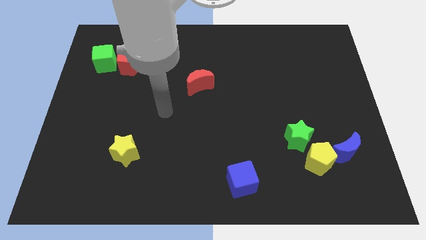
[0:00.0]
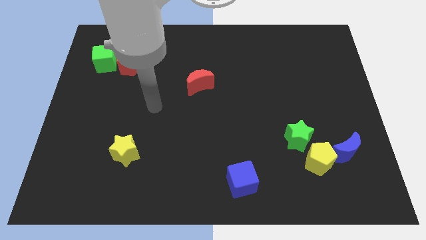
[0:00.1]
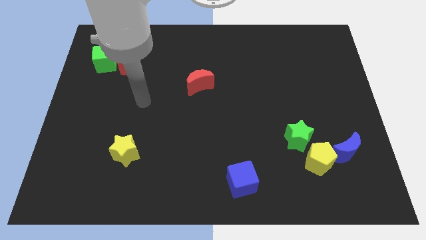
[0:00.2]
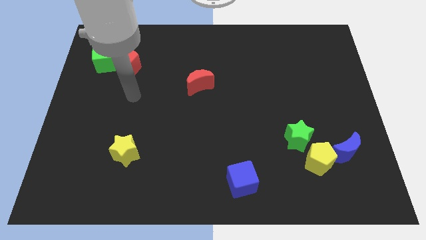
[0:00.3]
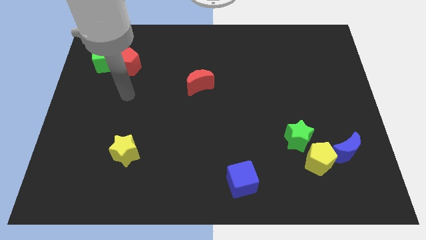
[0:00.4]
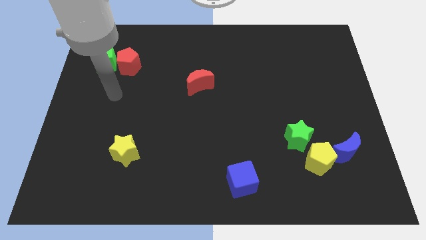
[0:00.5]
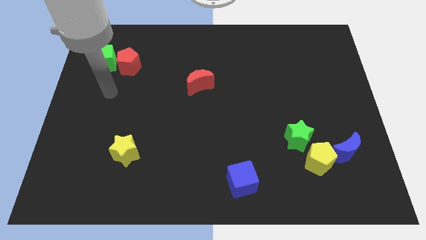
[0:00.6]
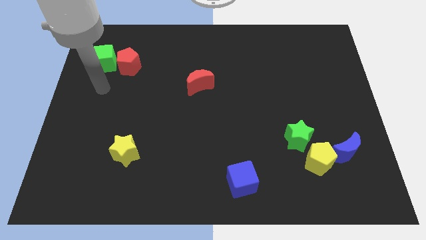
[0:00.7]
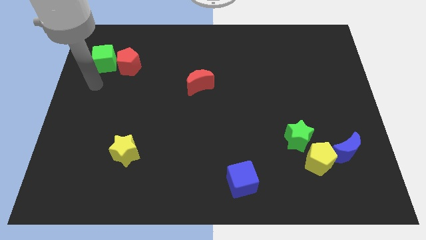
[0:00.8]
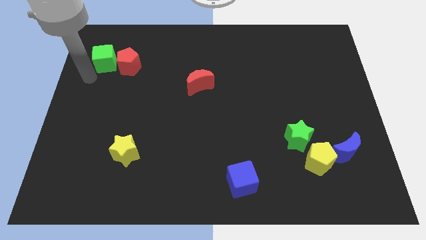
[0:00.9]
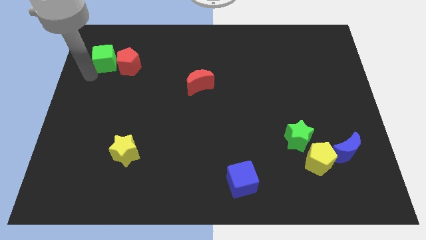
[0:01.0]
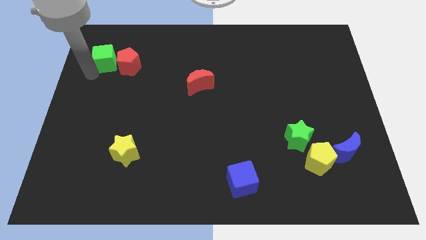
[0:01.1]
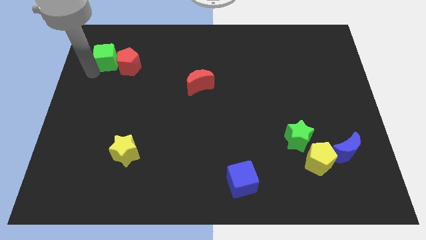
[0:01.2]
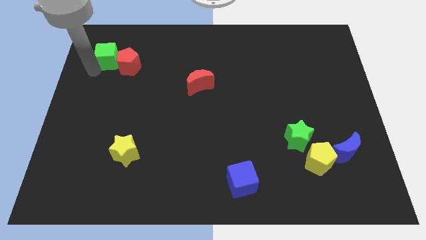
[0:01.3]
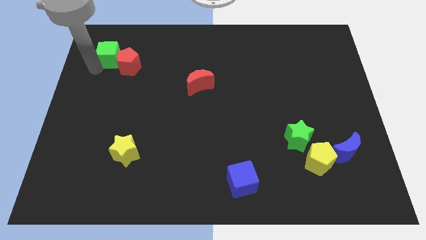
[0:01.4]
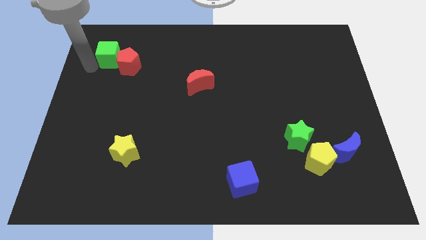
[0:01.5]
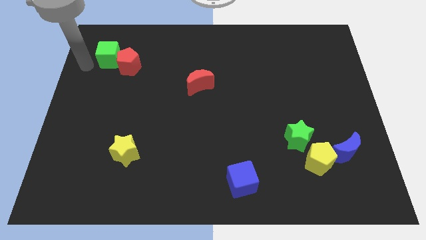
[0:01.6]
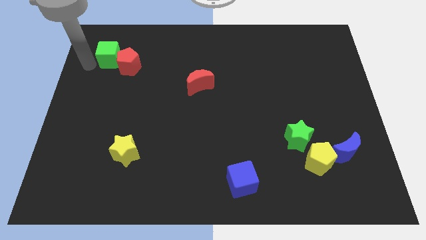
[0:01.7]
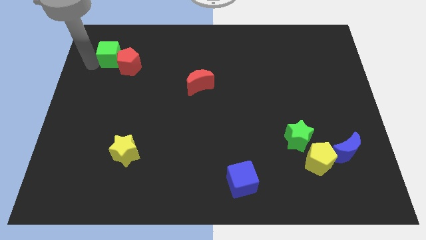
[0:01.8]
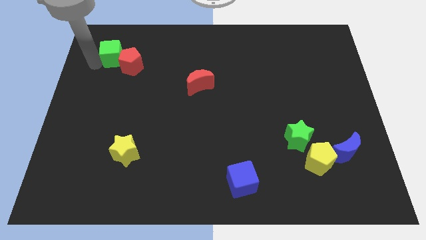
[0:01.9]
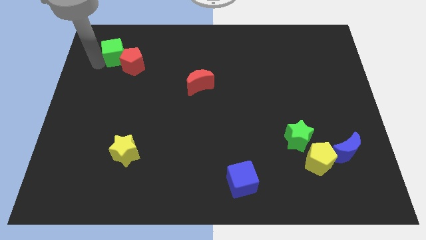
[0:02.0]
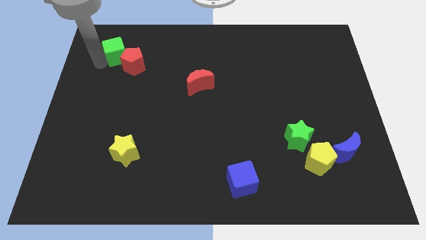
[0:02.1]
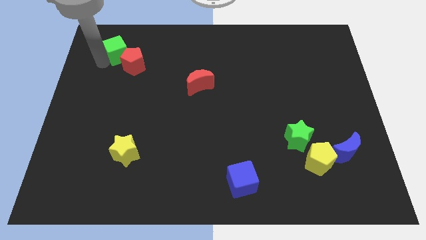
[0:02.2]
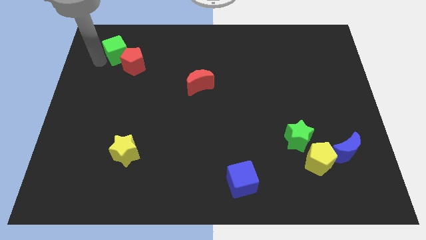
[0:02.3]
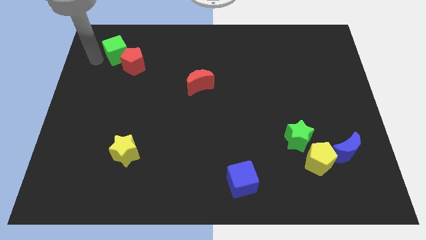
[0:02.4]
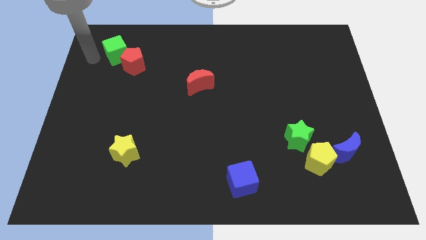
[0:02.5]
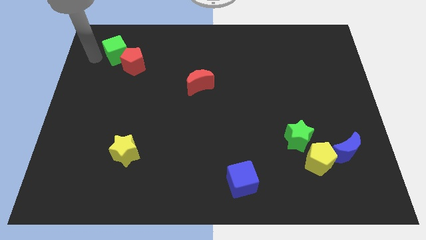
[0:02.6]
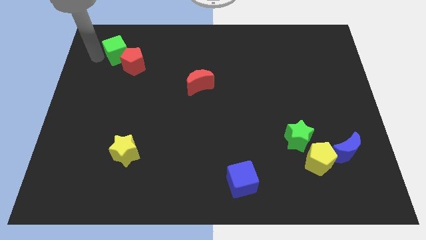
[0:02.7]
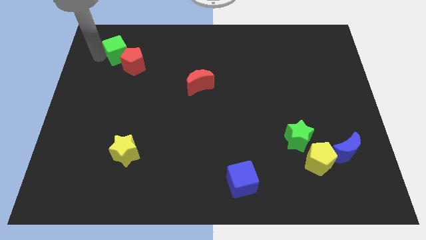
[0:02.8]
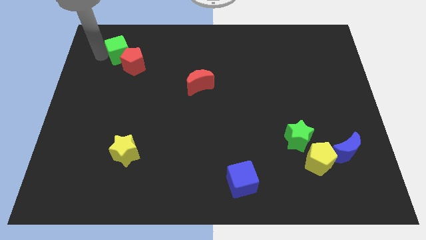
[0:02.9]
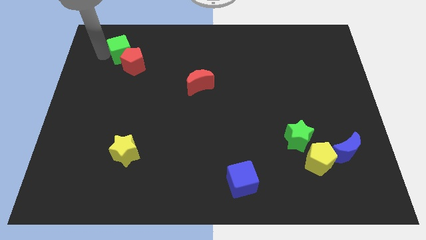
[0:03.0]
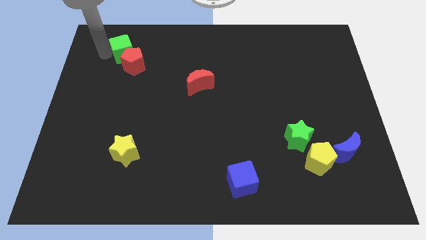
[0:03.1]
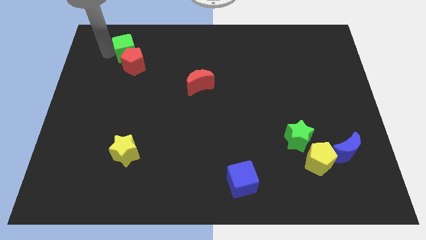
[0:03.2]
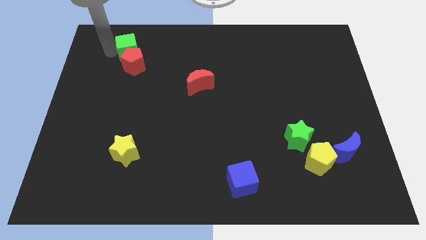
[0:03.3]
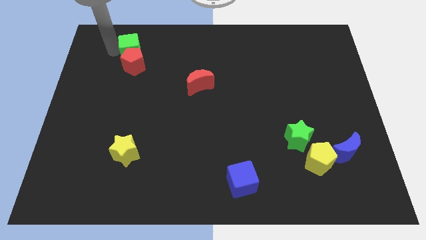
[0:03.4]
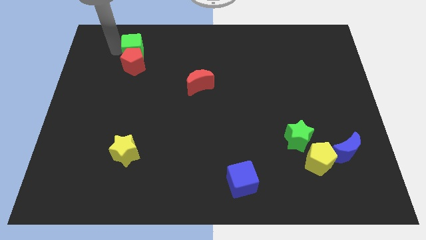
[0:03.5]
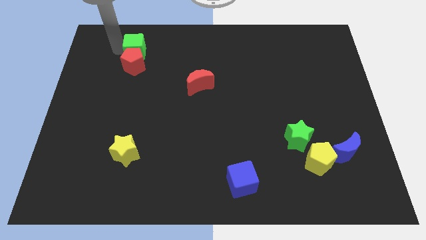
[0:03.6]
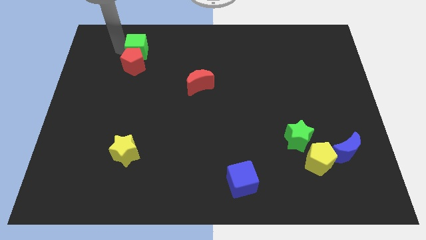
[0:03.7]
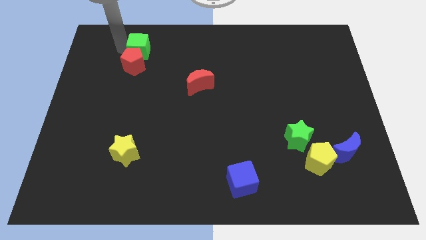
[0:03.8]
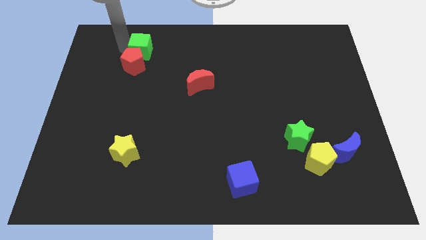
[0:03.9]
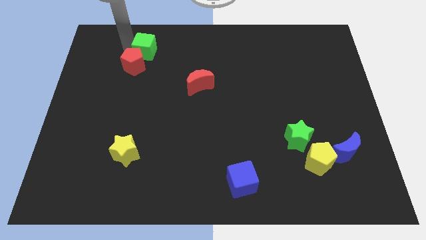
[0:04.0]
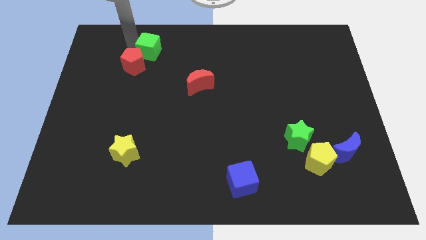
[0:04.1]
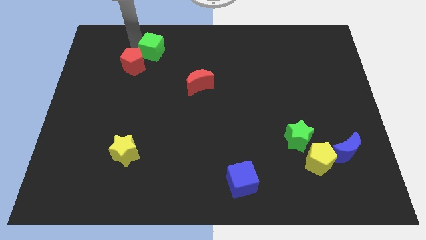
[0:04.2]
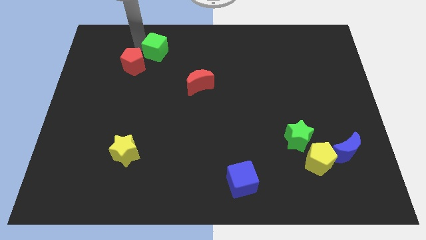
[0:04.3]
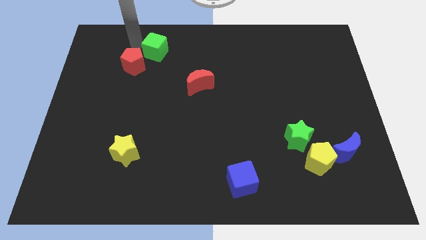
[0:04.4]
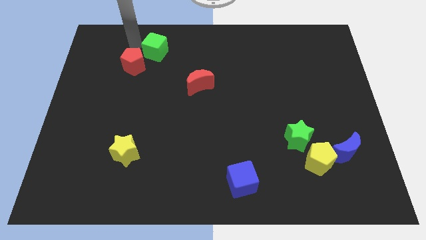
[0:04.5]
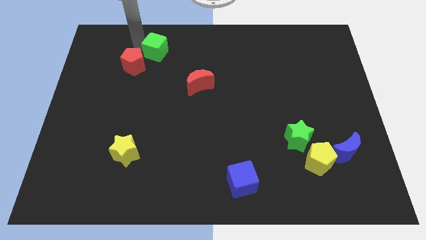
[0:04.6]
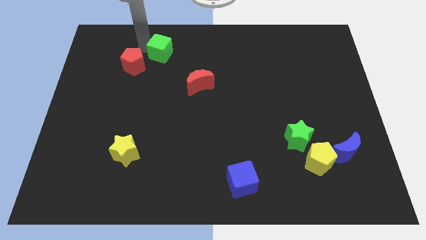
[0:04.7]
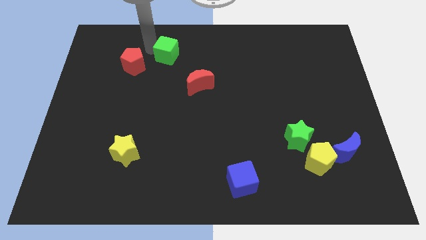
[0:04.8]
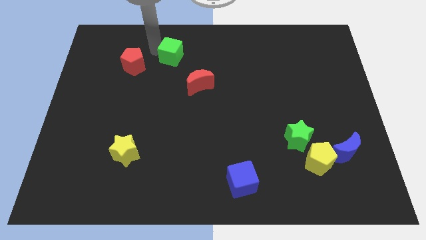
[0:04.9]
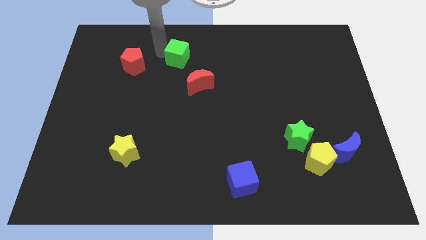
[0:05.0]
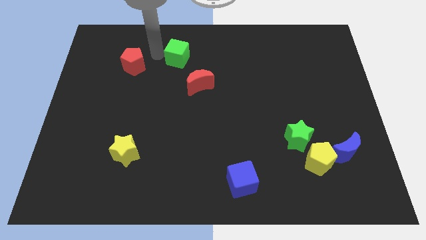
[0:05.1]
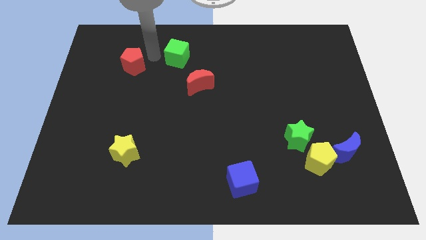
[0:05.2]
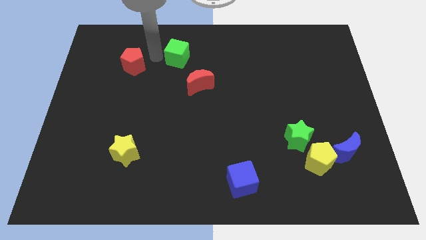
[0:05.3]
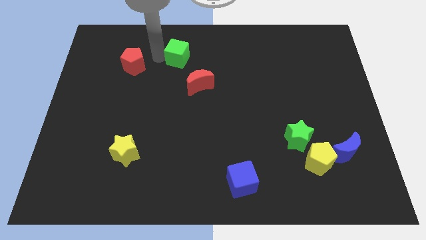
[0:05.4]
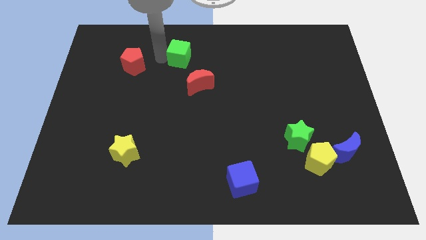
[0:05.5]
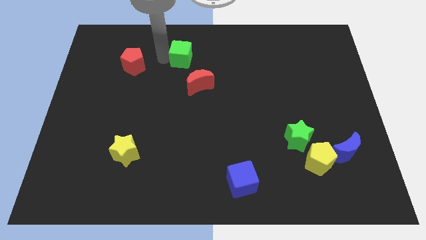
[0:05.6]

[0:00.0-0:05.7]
slide the green cube to the right

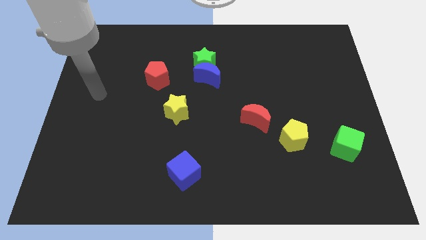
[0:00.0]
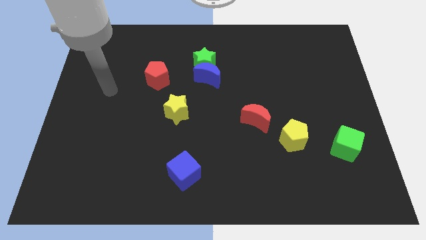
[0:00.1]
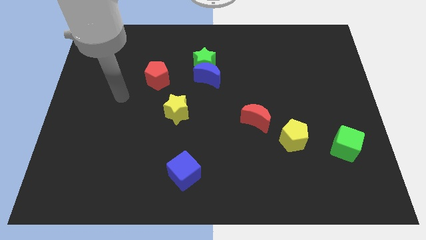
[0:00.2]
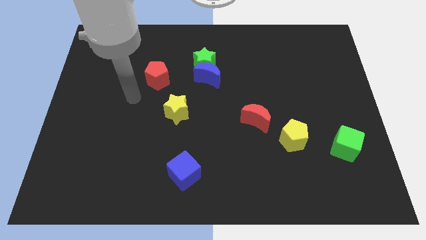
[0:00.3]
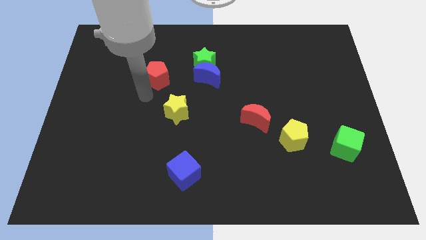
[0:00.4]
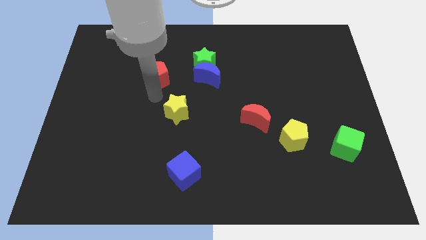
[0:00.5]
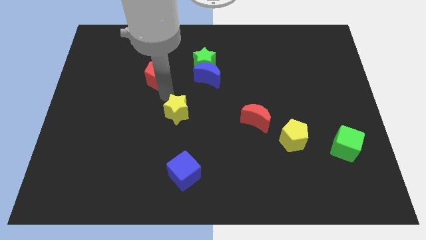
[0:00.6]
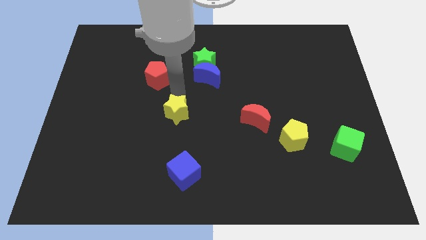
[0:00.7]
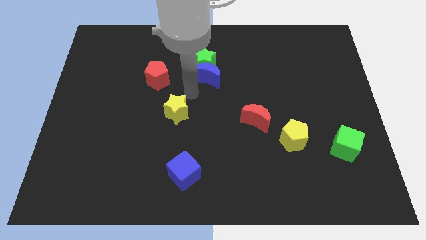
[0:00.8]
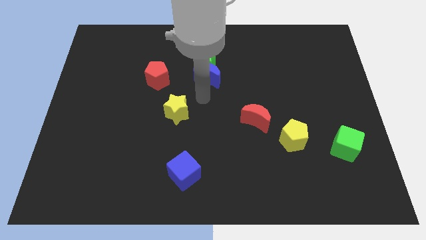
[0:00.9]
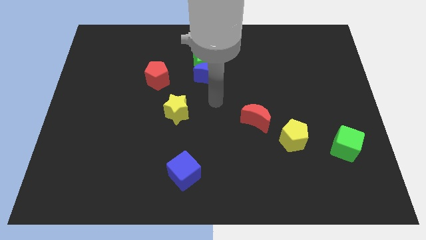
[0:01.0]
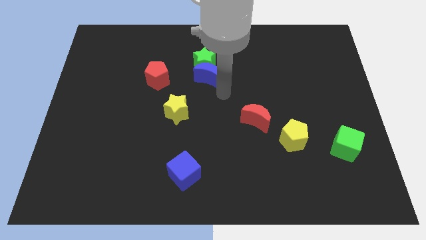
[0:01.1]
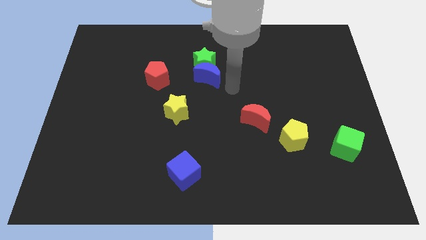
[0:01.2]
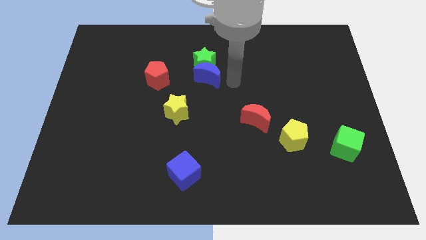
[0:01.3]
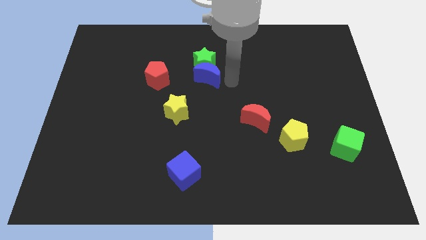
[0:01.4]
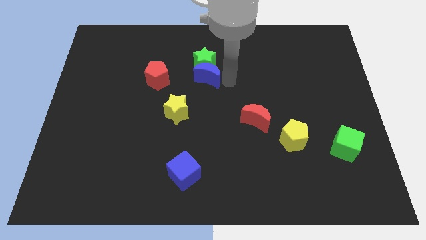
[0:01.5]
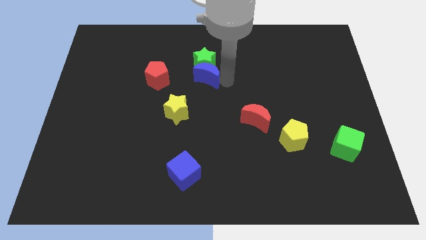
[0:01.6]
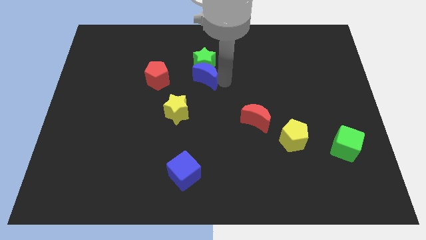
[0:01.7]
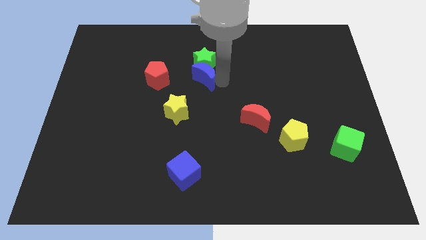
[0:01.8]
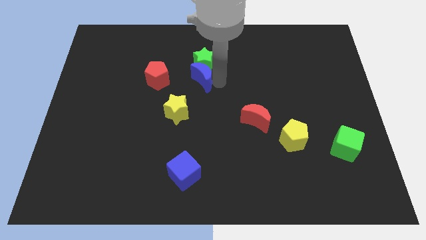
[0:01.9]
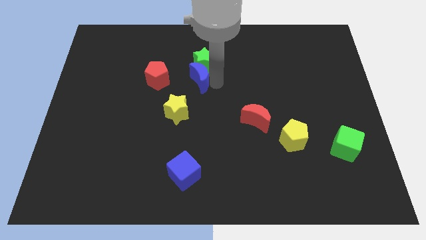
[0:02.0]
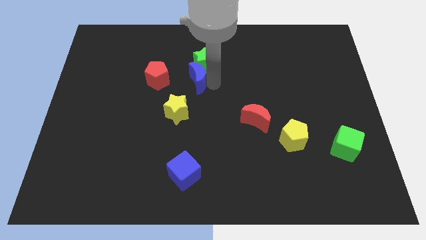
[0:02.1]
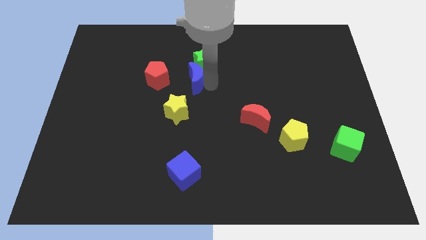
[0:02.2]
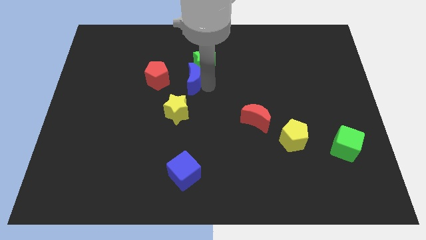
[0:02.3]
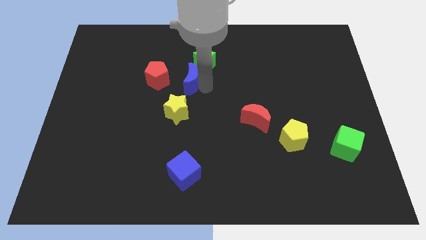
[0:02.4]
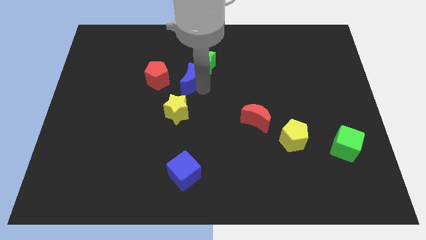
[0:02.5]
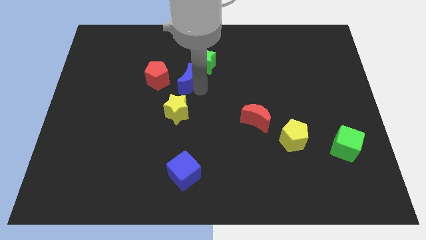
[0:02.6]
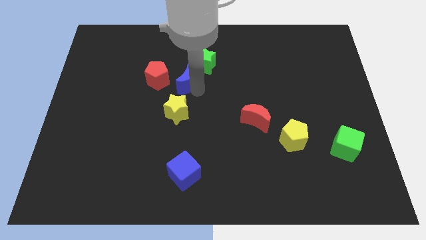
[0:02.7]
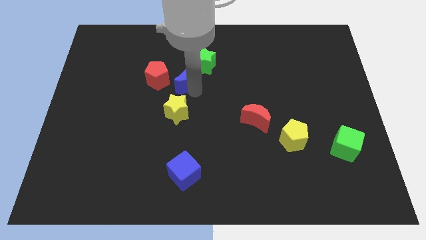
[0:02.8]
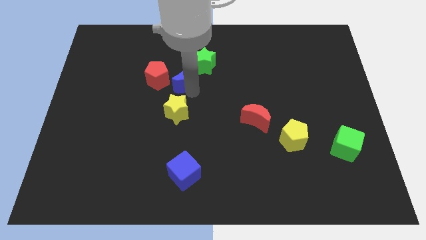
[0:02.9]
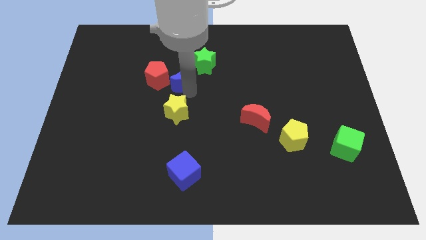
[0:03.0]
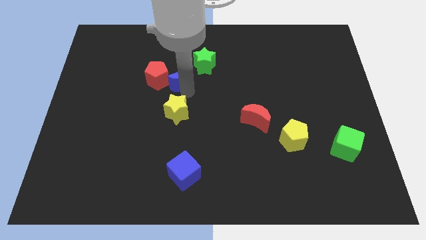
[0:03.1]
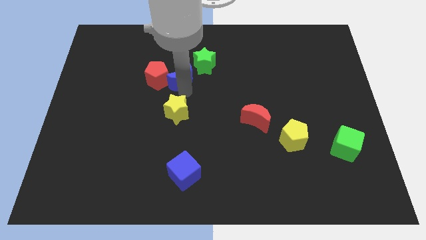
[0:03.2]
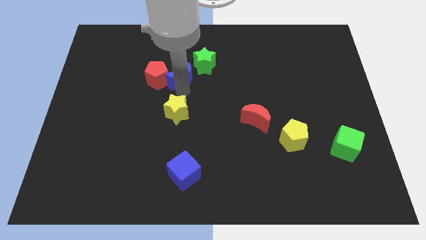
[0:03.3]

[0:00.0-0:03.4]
push the blue moon left slightly
